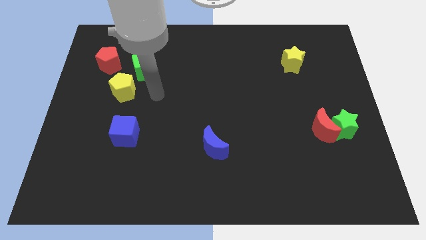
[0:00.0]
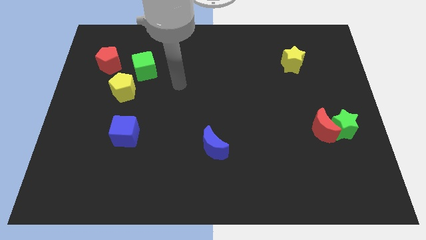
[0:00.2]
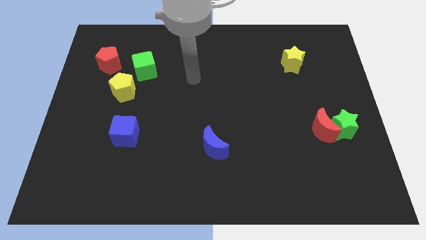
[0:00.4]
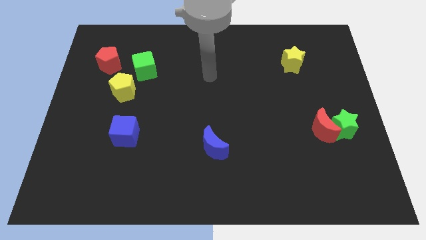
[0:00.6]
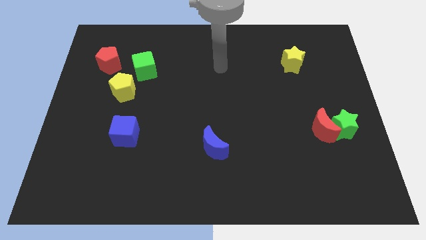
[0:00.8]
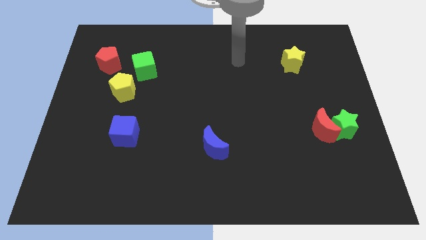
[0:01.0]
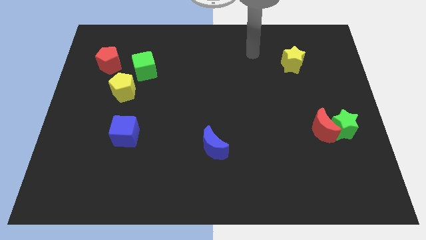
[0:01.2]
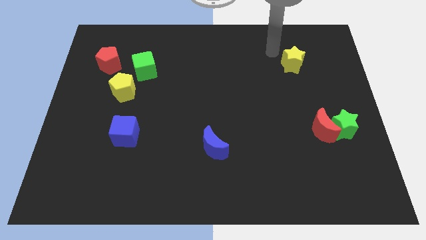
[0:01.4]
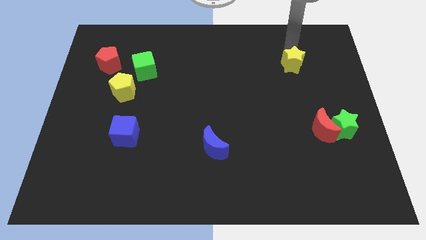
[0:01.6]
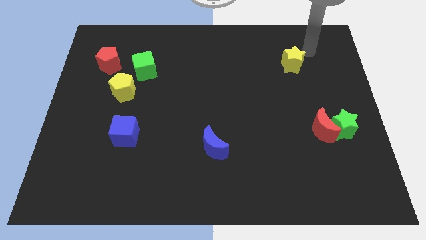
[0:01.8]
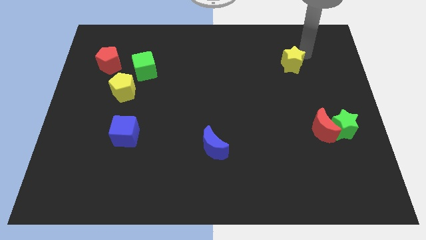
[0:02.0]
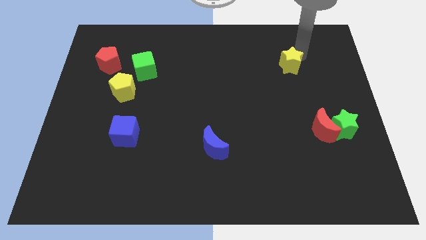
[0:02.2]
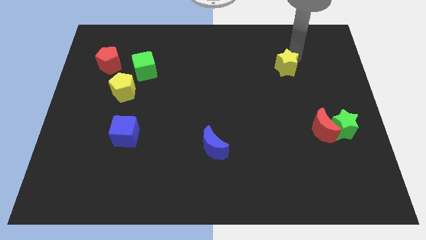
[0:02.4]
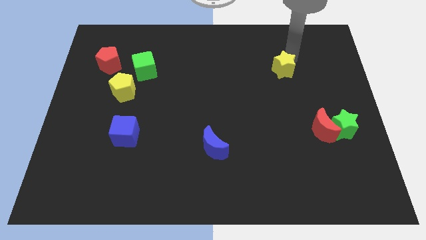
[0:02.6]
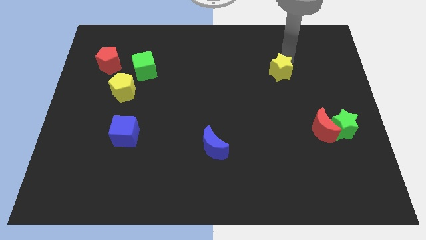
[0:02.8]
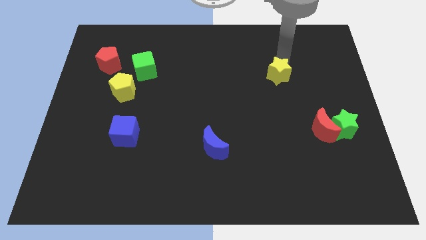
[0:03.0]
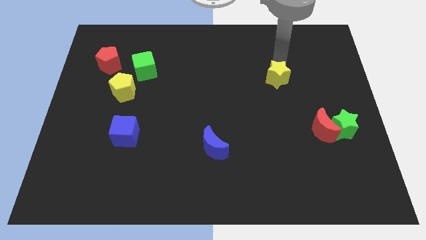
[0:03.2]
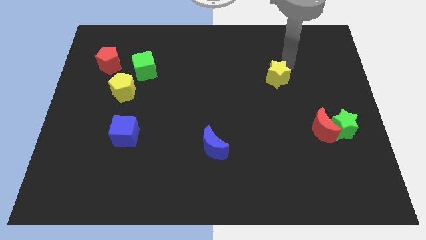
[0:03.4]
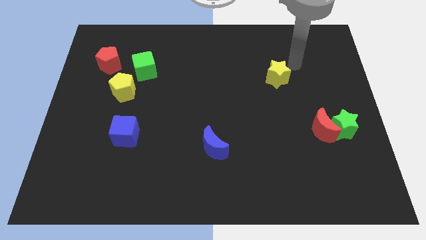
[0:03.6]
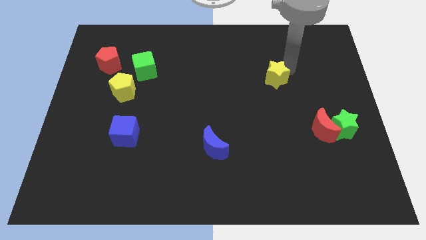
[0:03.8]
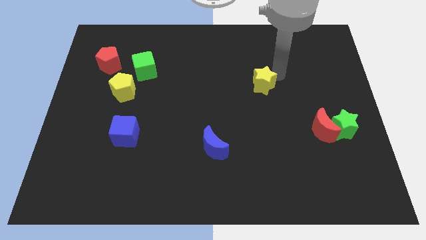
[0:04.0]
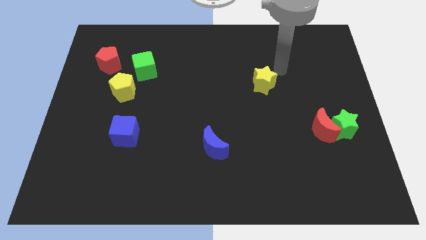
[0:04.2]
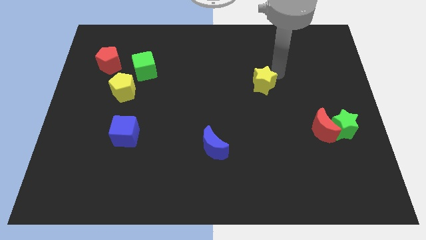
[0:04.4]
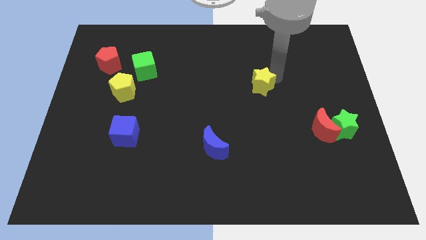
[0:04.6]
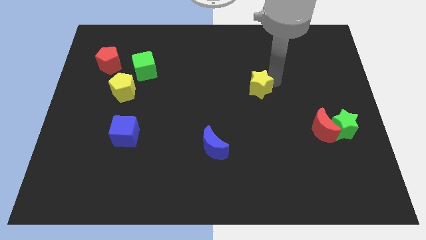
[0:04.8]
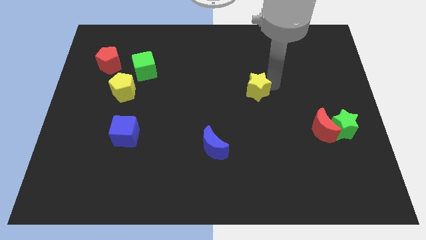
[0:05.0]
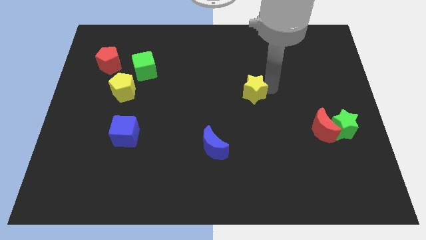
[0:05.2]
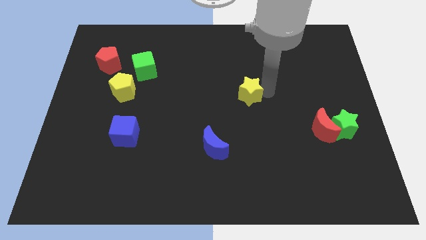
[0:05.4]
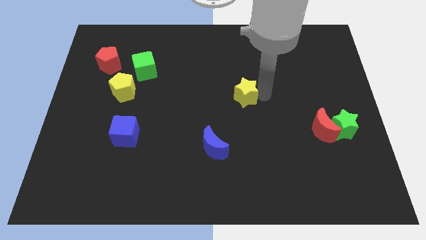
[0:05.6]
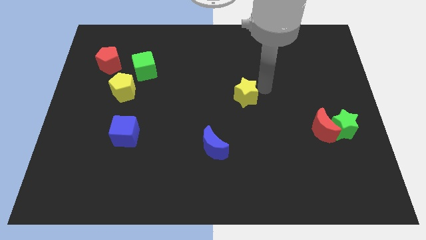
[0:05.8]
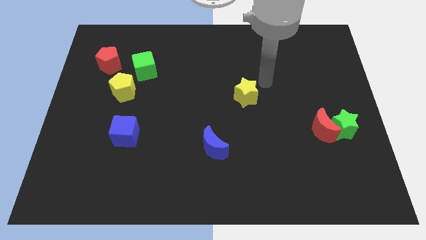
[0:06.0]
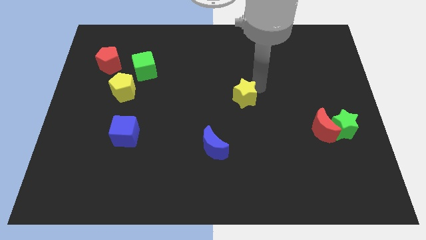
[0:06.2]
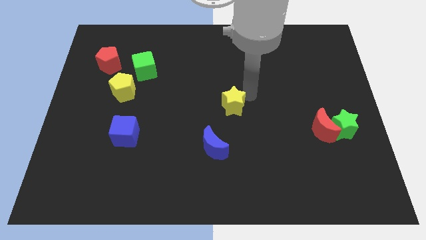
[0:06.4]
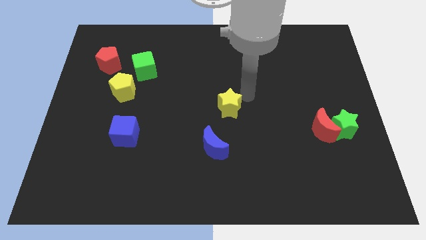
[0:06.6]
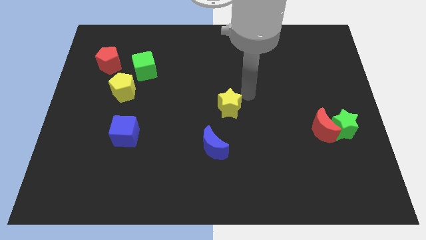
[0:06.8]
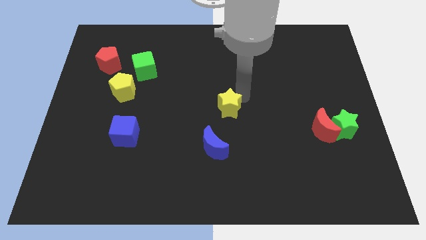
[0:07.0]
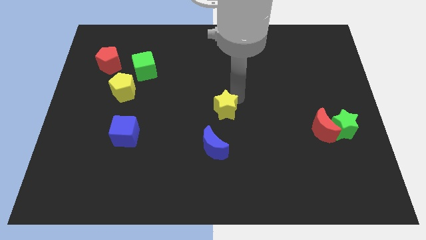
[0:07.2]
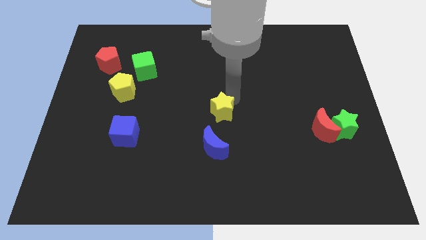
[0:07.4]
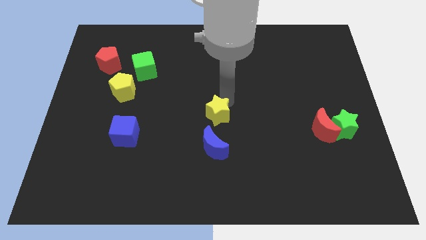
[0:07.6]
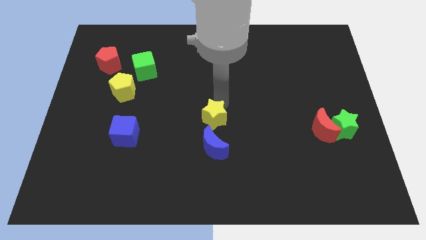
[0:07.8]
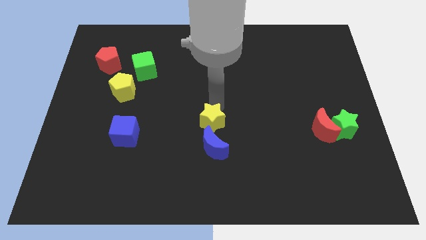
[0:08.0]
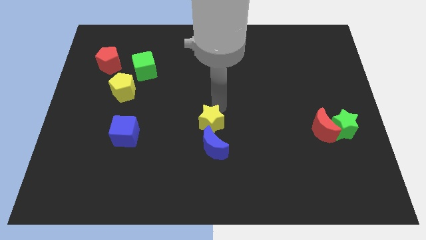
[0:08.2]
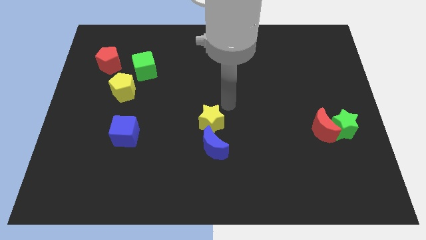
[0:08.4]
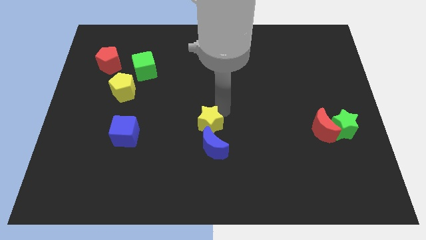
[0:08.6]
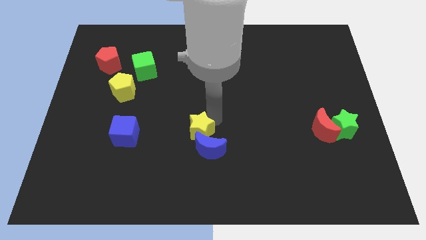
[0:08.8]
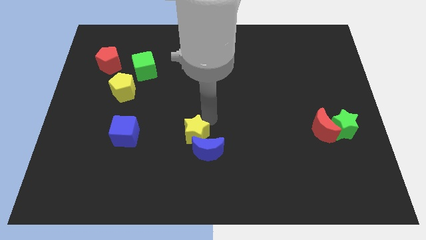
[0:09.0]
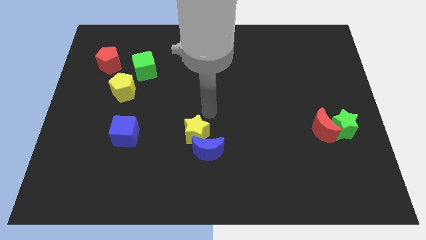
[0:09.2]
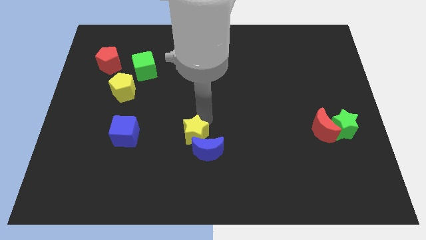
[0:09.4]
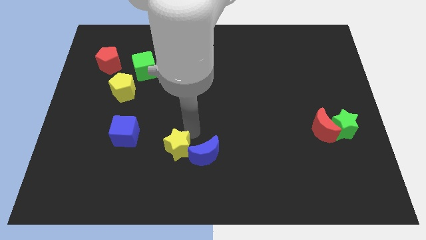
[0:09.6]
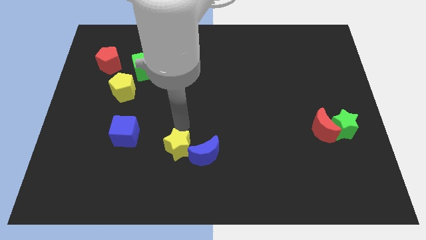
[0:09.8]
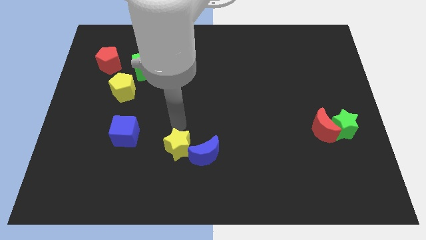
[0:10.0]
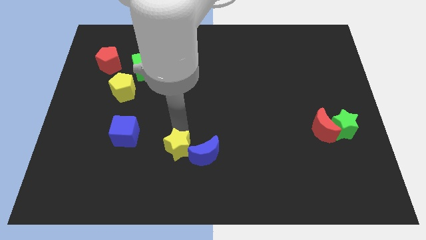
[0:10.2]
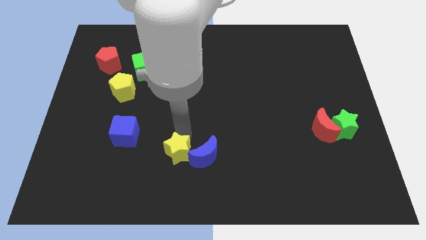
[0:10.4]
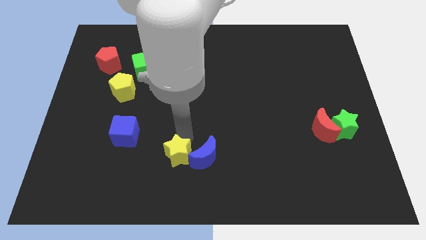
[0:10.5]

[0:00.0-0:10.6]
slide the yellow star to the bottom left of the blue moon

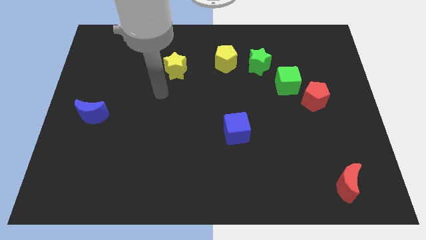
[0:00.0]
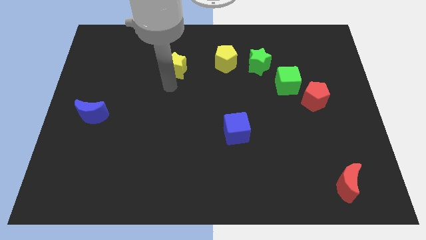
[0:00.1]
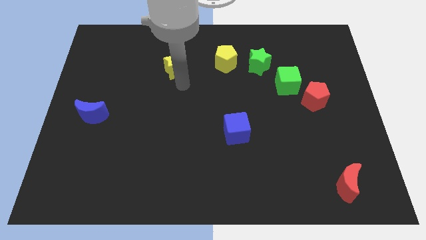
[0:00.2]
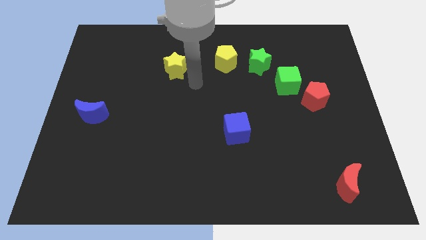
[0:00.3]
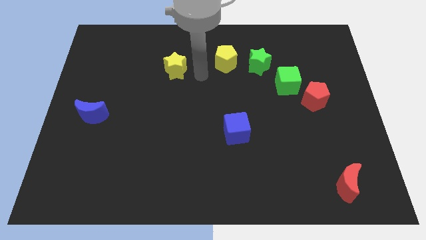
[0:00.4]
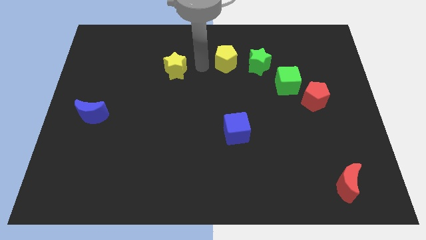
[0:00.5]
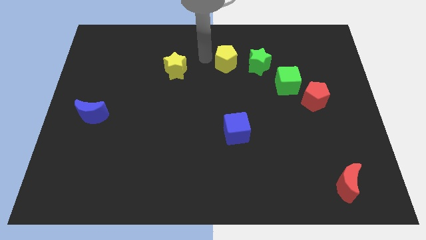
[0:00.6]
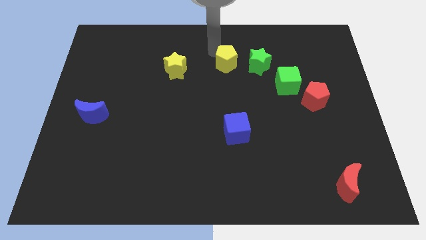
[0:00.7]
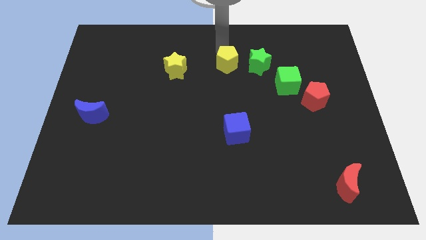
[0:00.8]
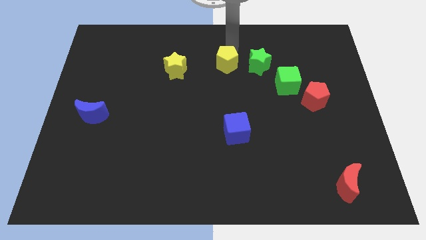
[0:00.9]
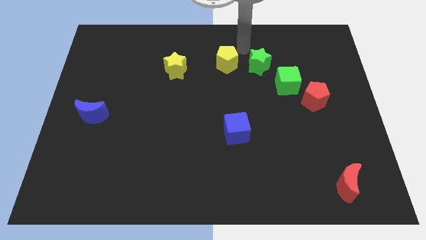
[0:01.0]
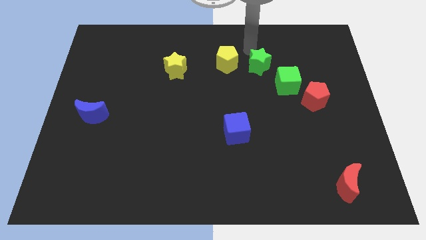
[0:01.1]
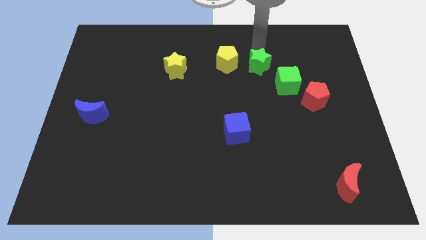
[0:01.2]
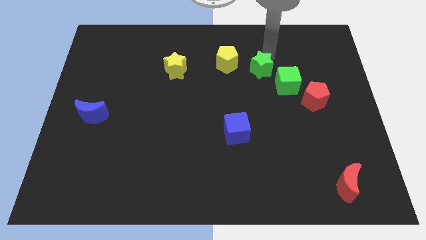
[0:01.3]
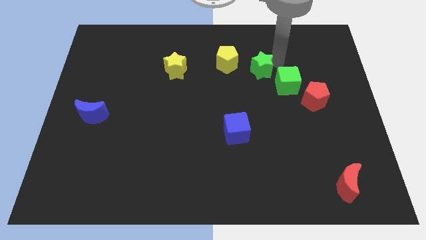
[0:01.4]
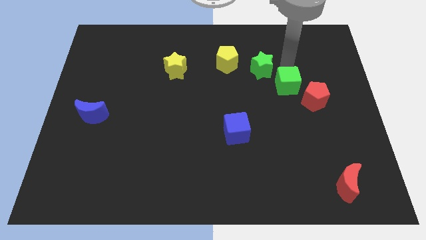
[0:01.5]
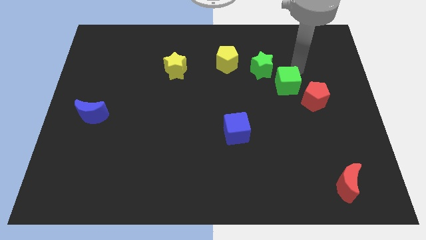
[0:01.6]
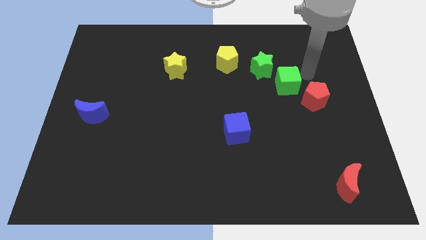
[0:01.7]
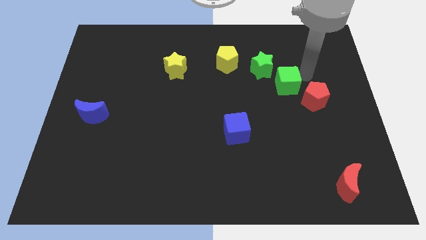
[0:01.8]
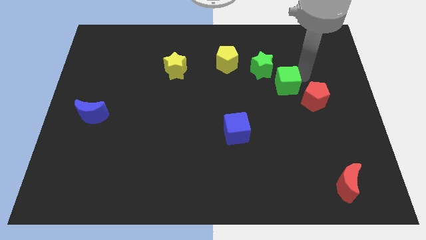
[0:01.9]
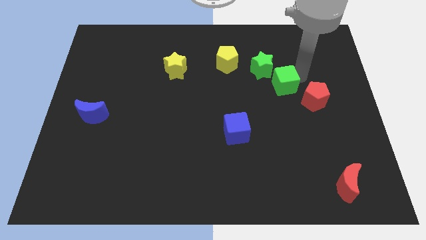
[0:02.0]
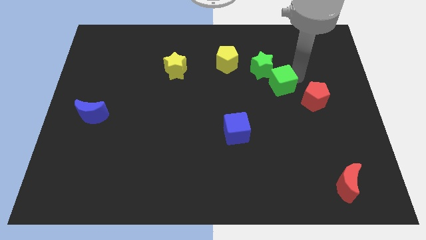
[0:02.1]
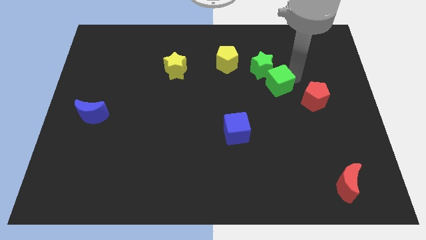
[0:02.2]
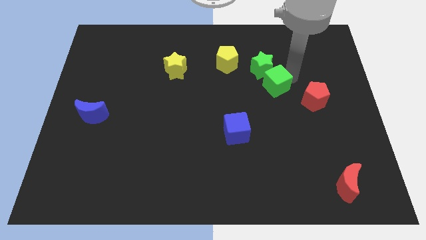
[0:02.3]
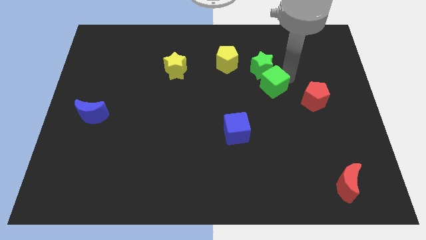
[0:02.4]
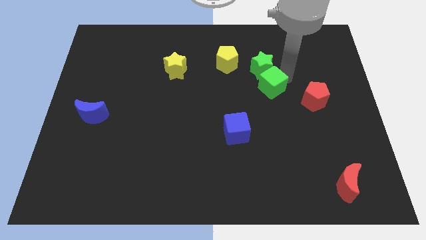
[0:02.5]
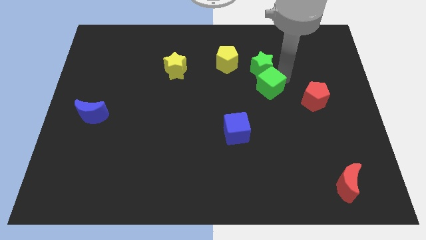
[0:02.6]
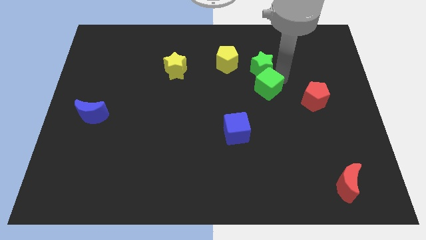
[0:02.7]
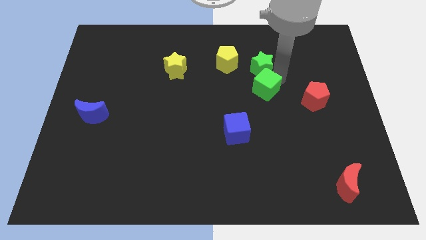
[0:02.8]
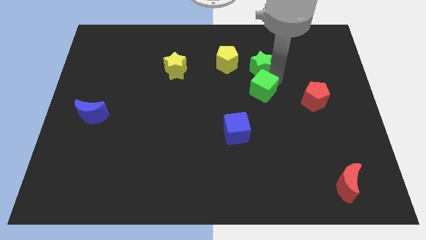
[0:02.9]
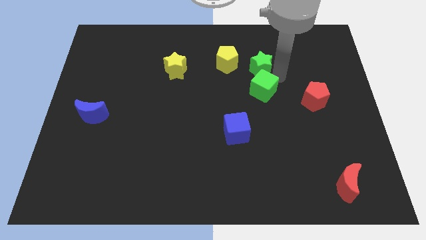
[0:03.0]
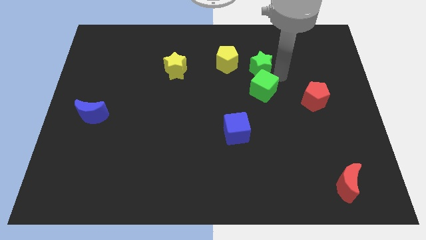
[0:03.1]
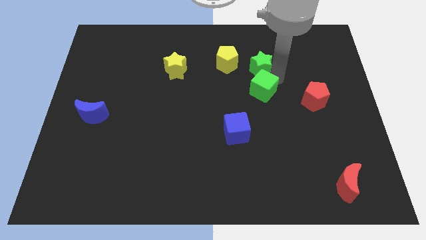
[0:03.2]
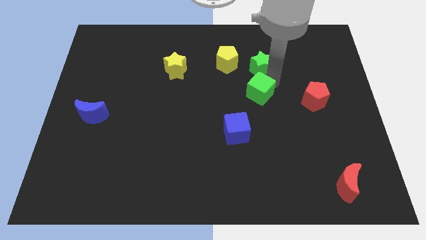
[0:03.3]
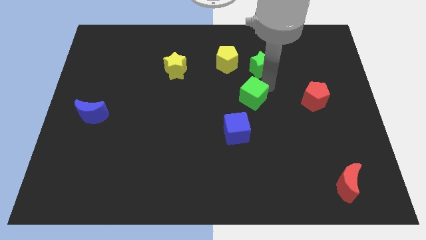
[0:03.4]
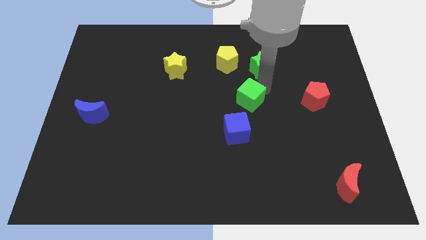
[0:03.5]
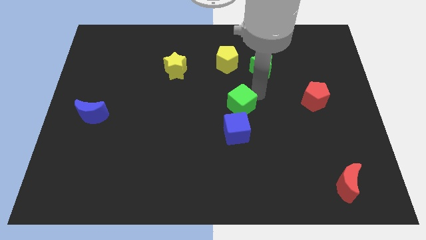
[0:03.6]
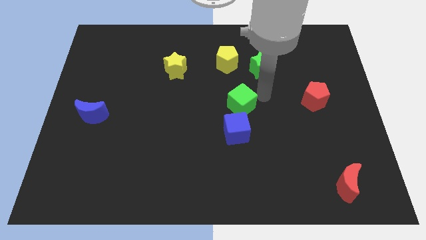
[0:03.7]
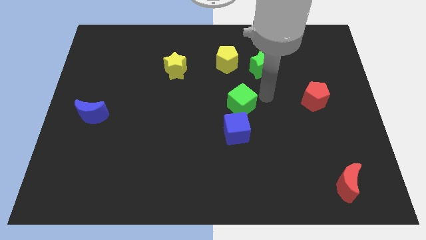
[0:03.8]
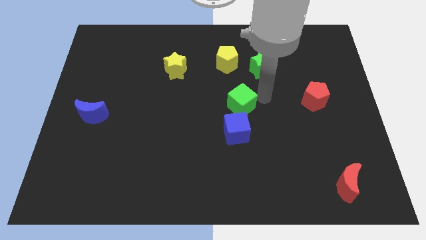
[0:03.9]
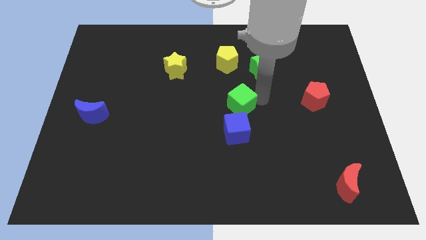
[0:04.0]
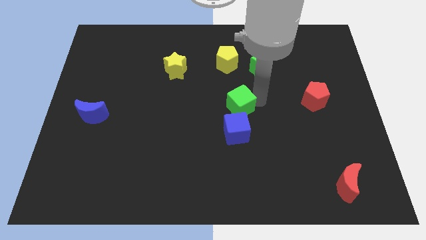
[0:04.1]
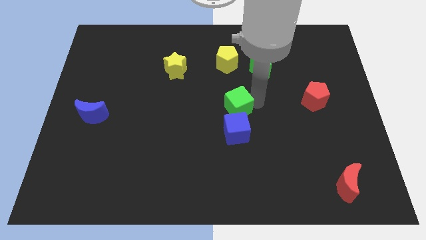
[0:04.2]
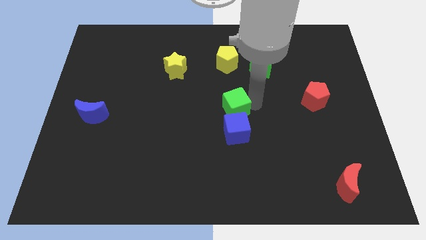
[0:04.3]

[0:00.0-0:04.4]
put the green cube to the top left of the blue cube
